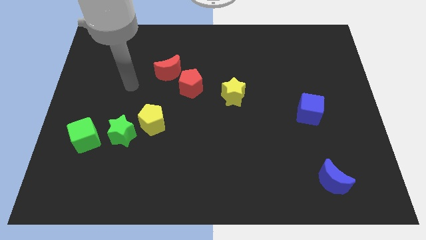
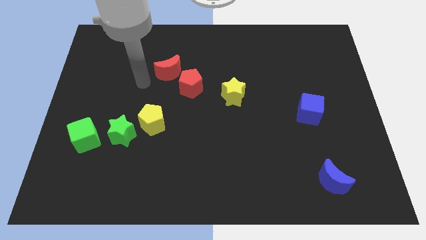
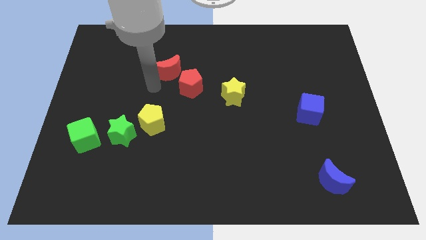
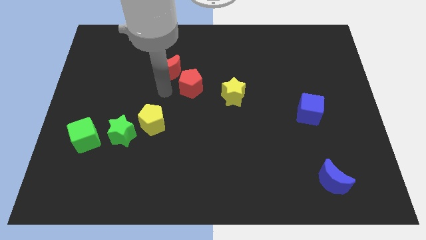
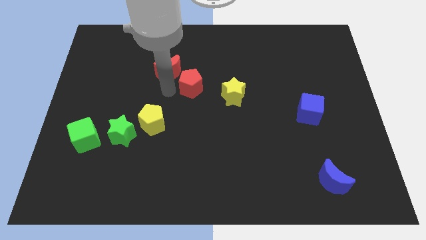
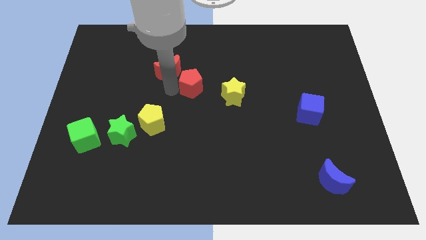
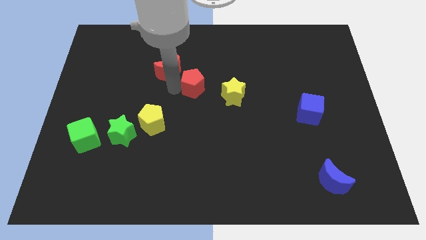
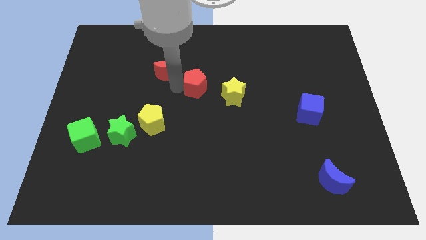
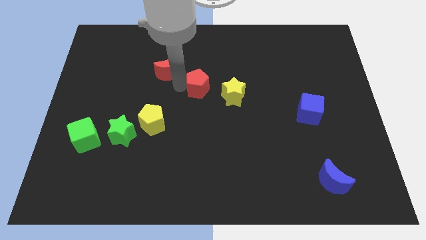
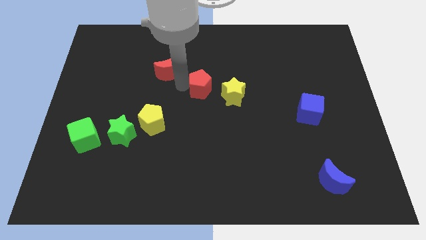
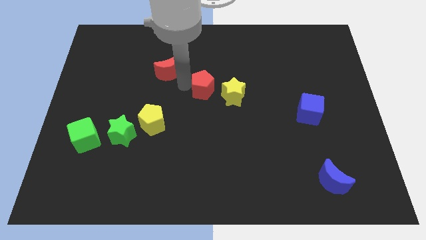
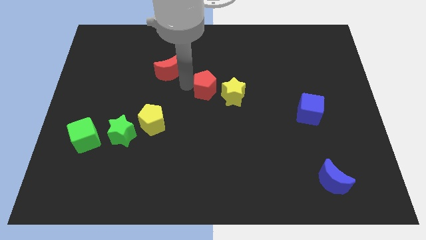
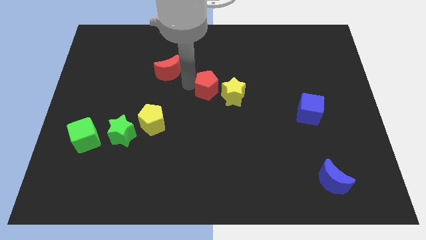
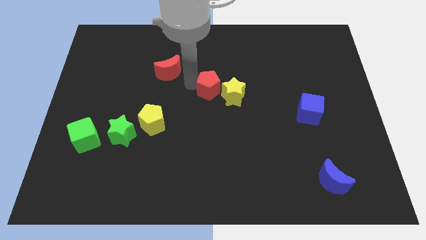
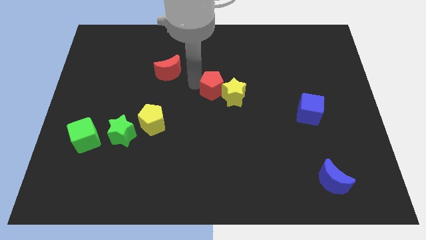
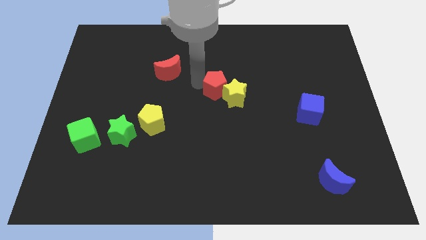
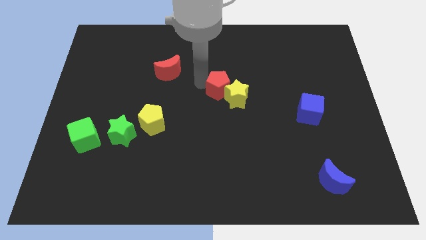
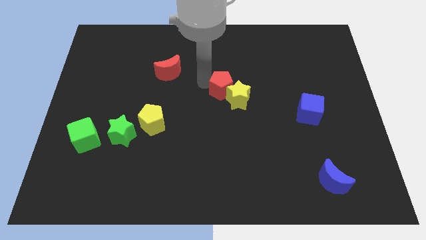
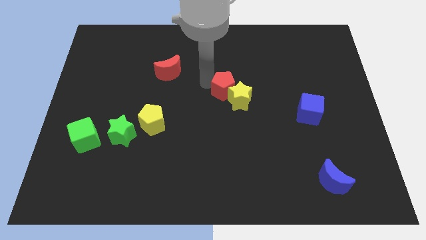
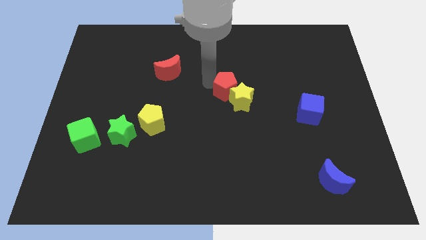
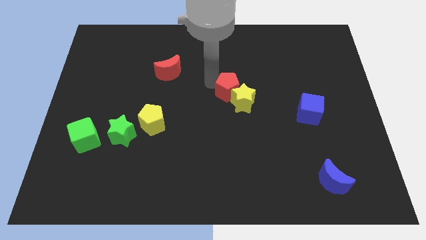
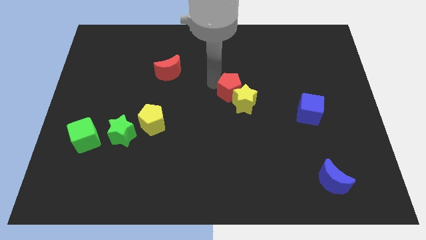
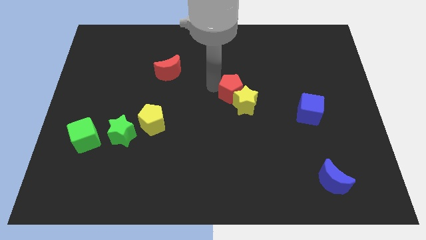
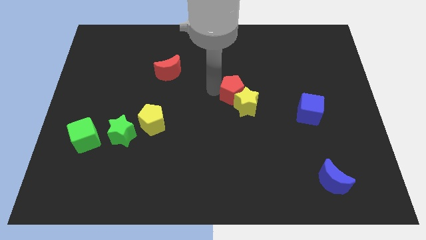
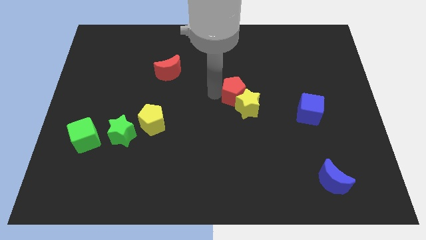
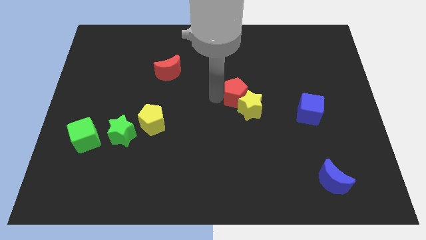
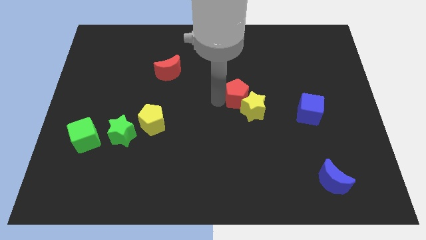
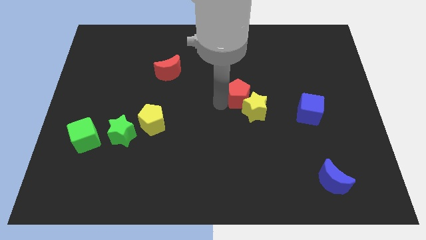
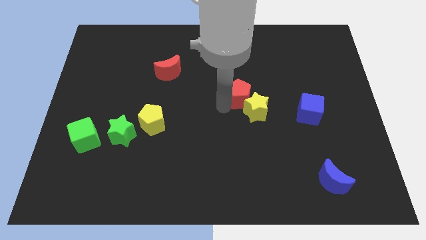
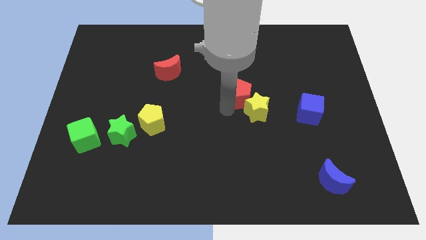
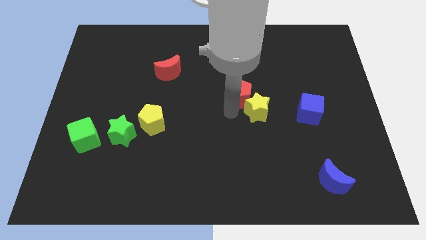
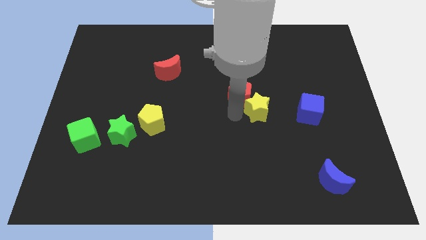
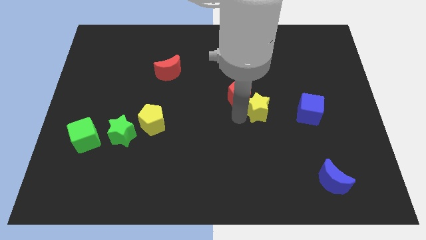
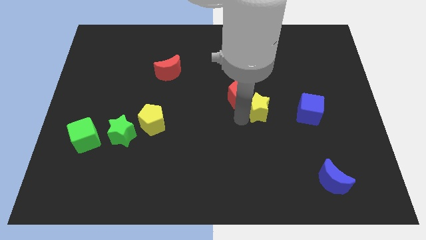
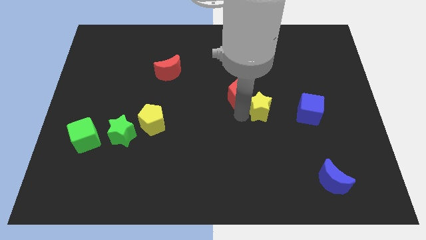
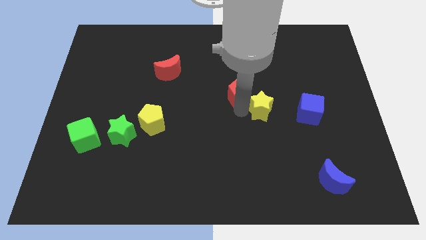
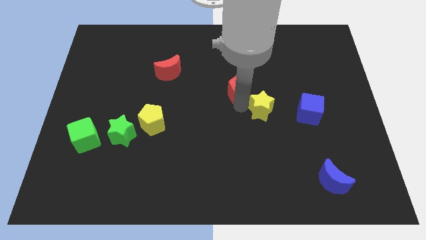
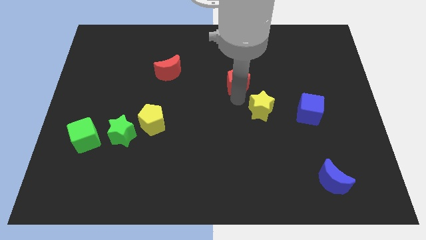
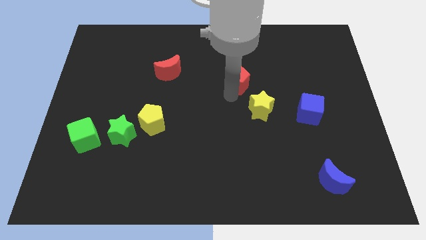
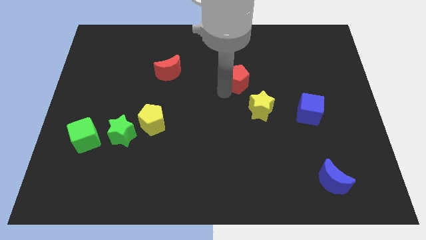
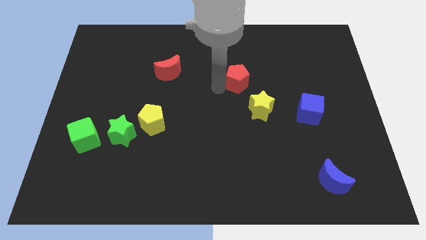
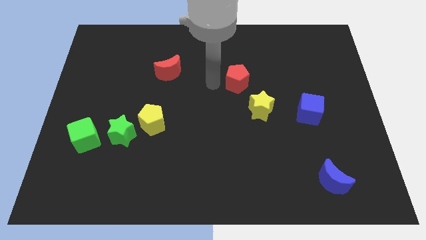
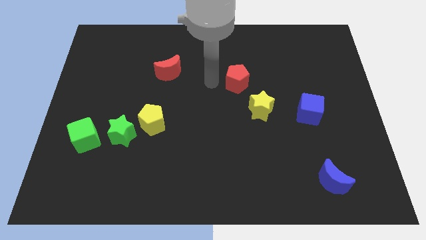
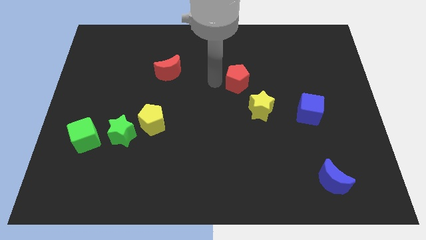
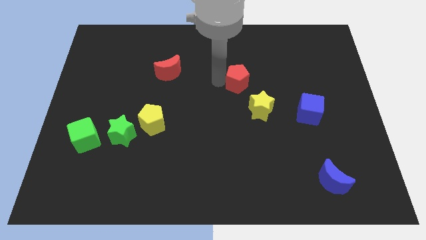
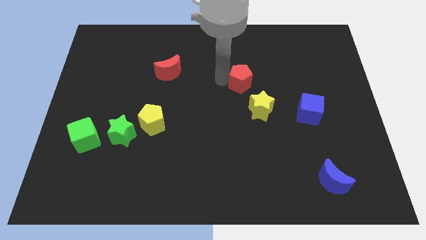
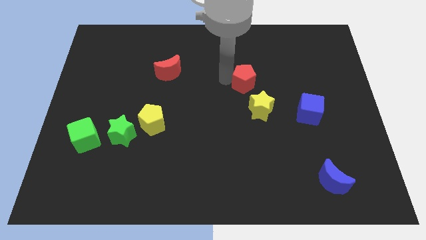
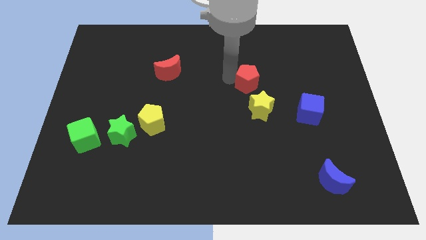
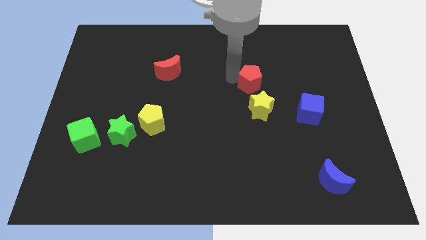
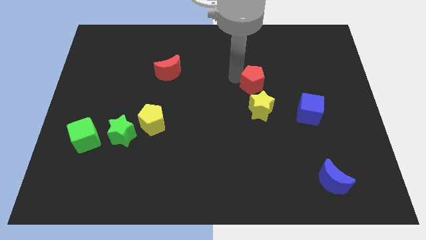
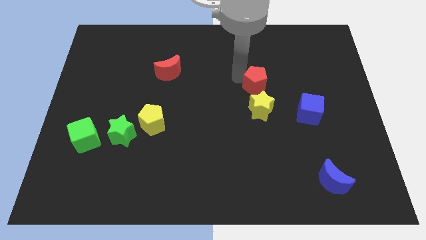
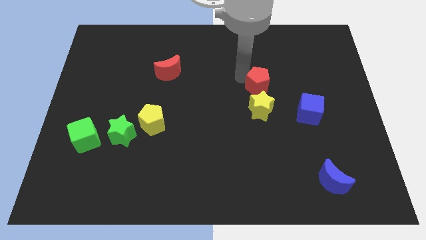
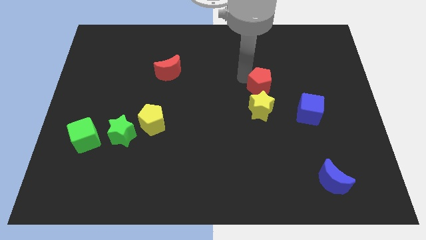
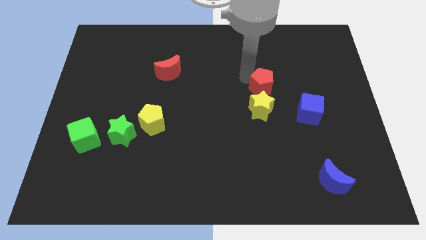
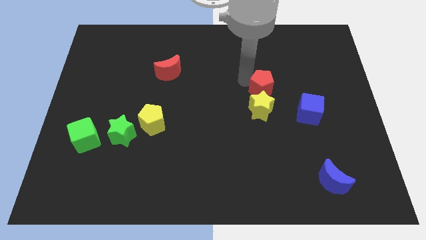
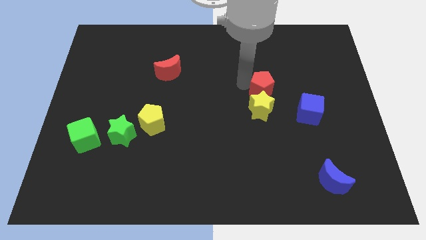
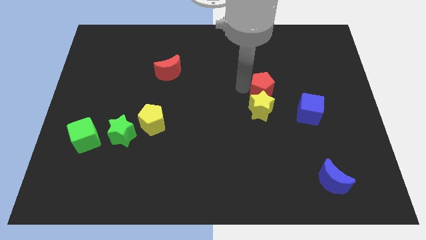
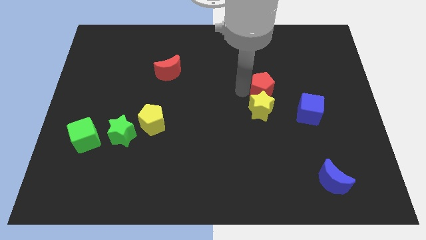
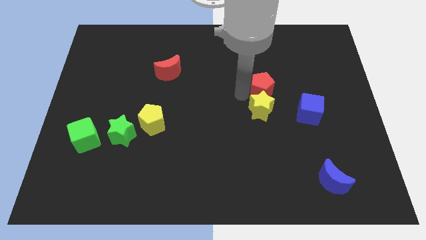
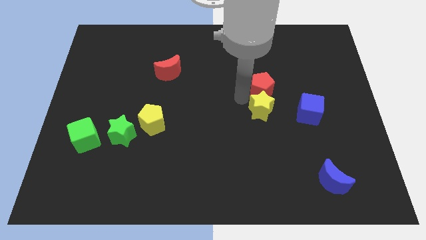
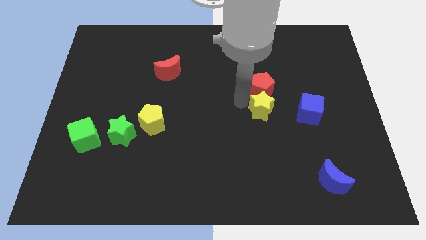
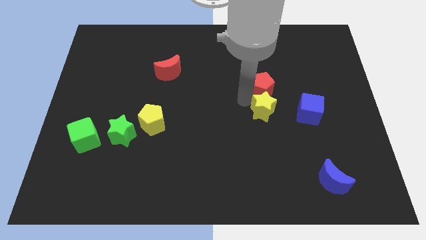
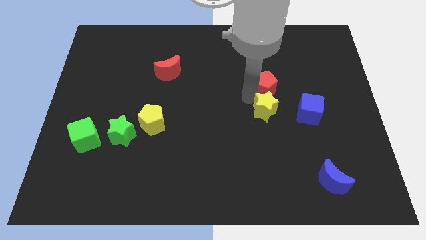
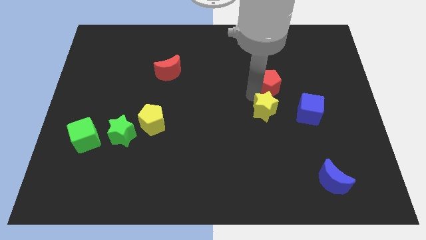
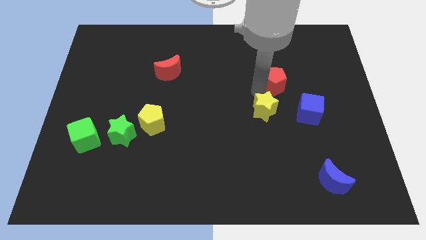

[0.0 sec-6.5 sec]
slide the red pentagon right

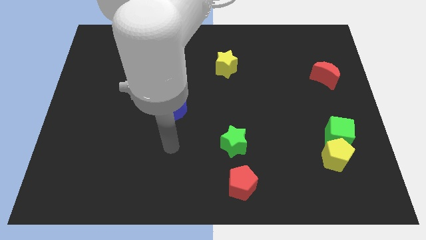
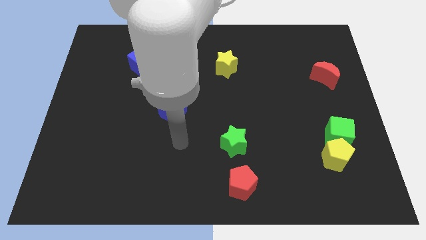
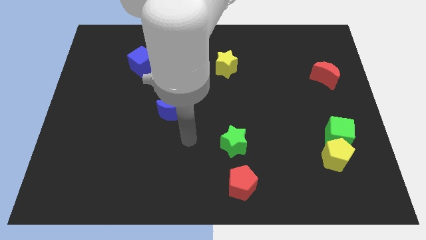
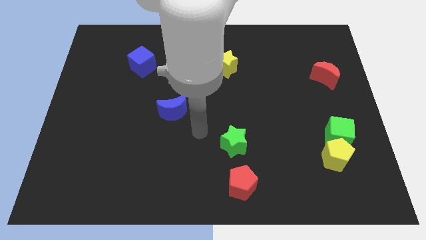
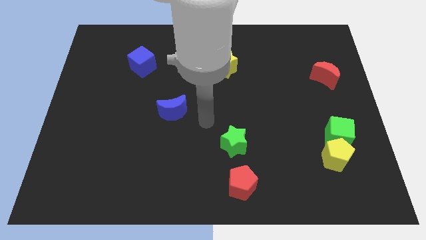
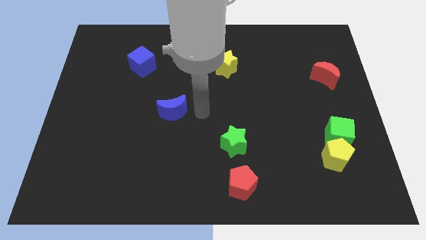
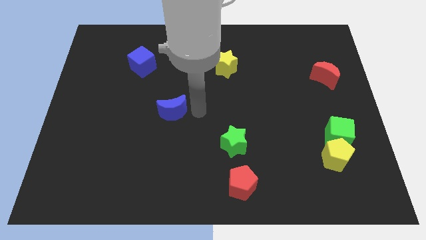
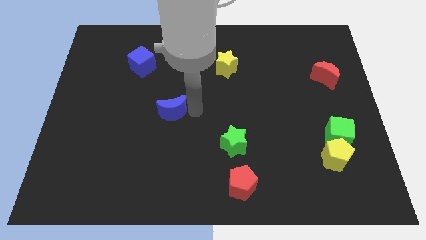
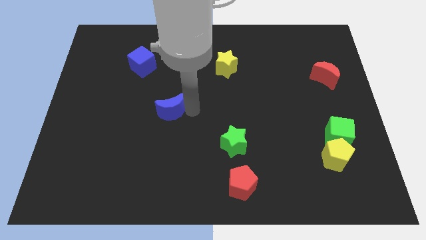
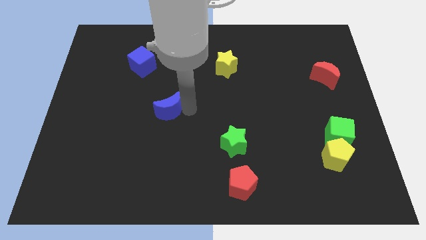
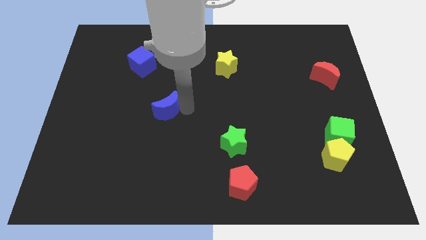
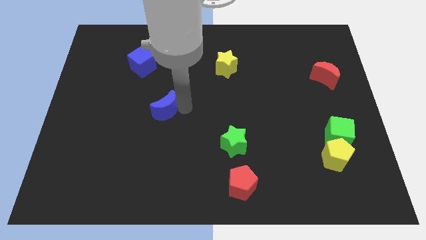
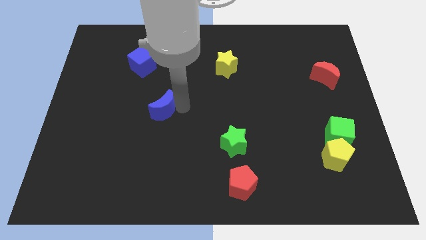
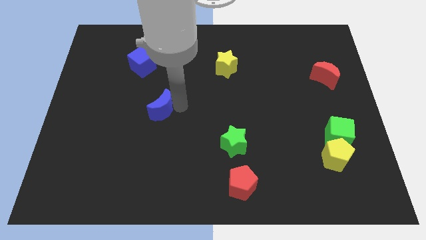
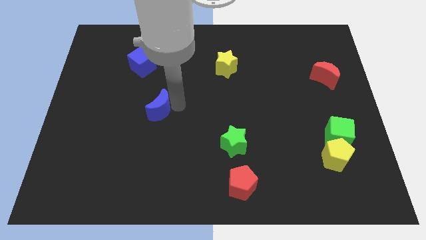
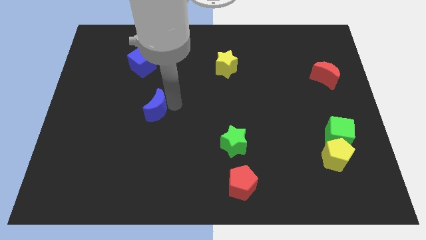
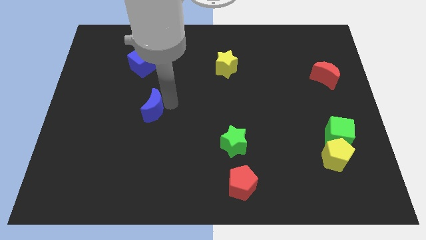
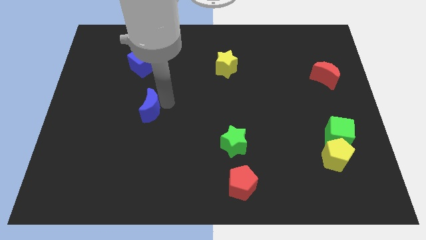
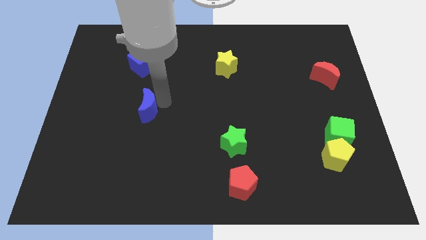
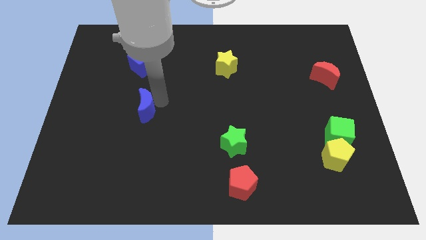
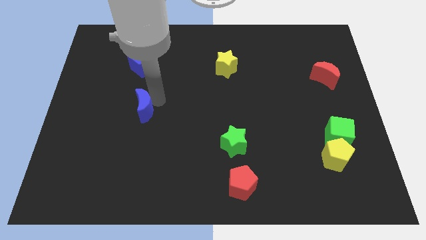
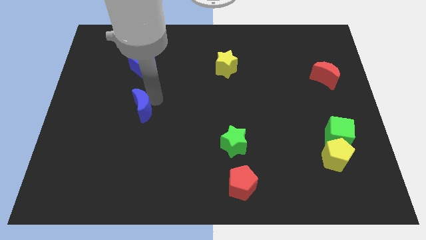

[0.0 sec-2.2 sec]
slide the blue moon a bit to the left
